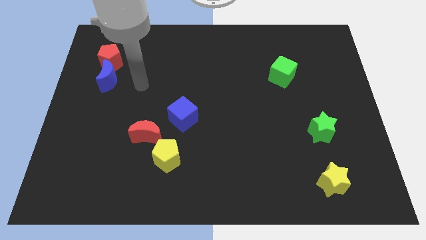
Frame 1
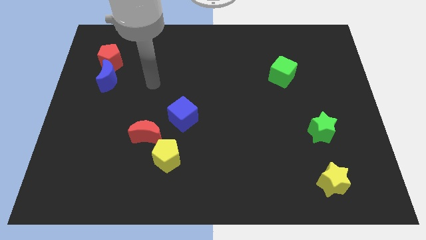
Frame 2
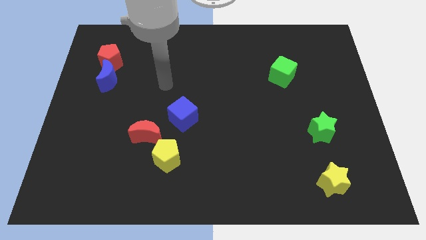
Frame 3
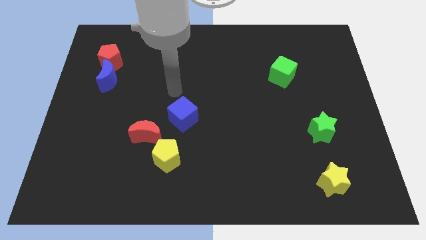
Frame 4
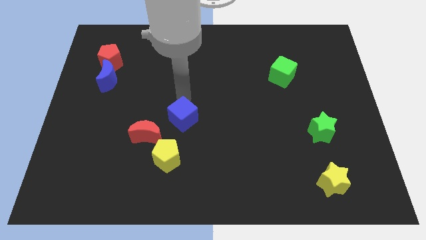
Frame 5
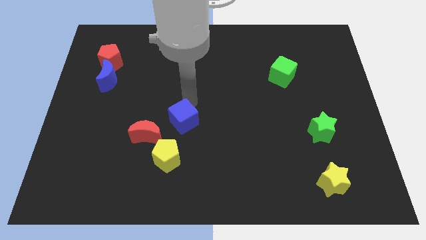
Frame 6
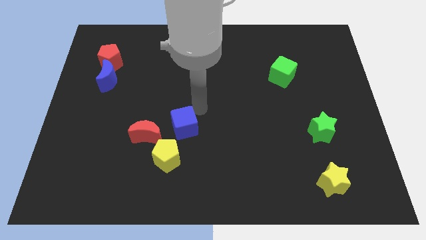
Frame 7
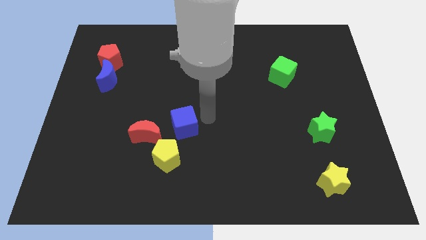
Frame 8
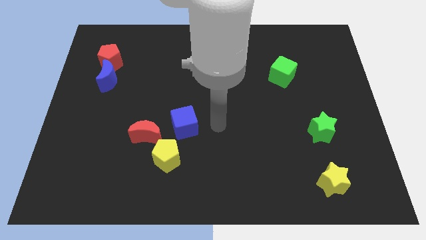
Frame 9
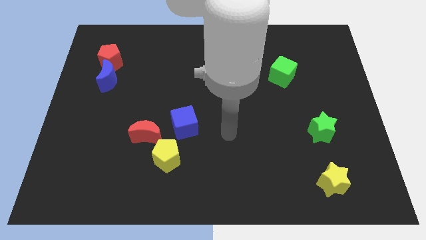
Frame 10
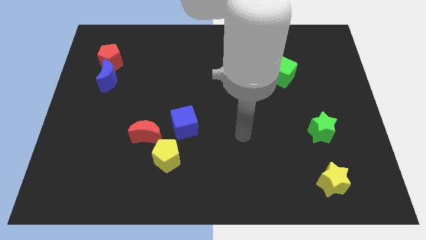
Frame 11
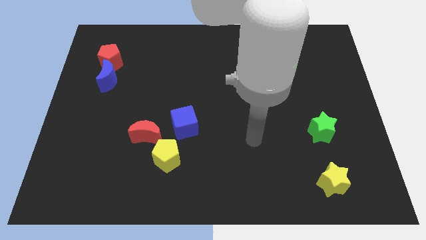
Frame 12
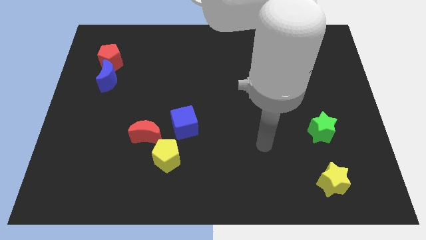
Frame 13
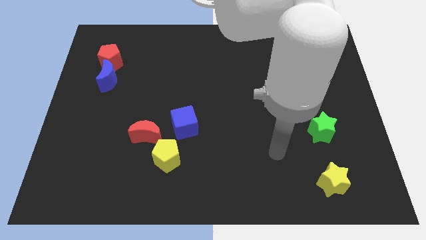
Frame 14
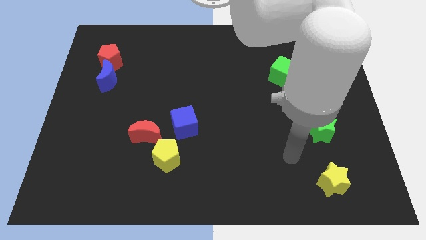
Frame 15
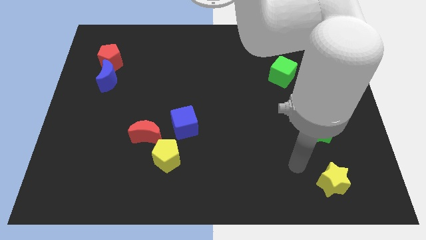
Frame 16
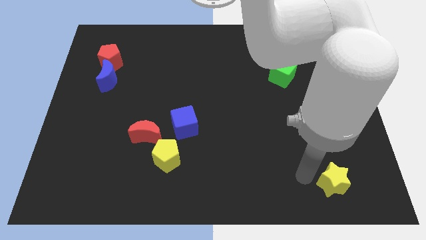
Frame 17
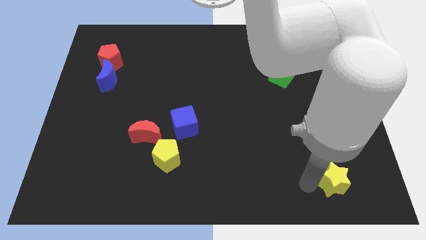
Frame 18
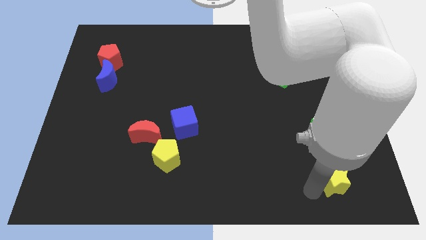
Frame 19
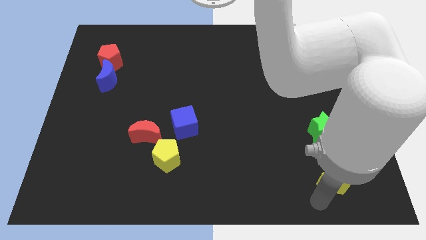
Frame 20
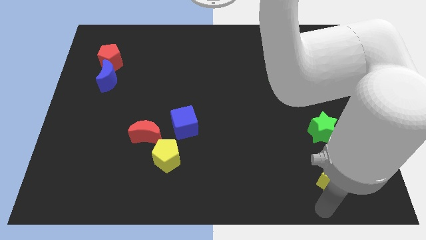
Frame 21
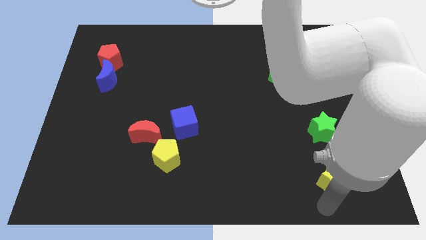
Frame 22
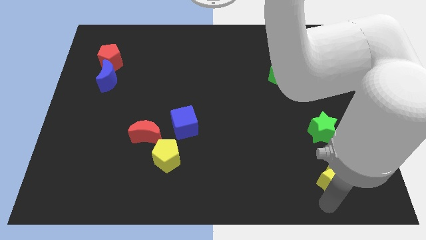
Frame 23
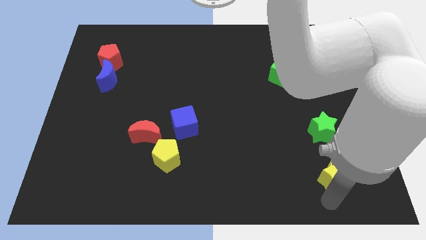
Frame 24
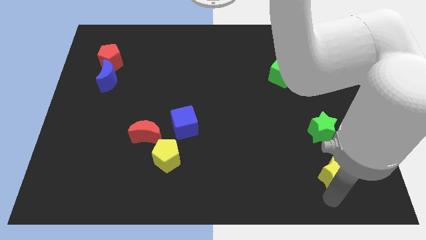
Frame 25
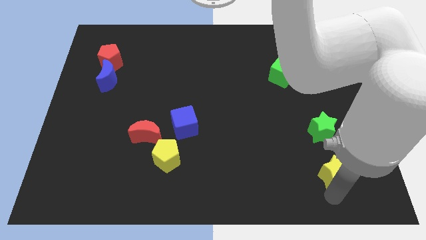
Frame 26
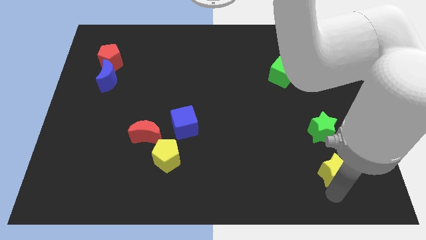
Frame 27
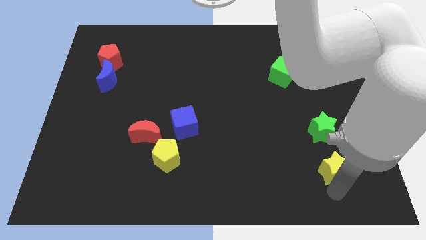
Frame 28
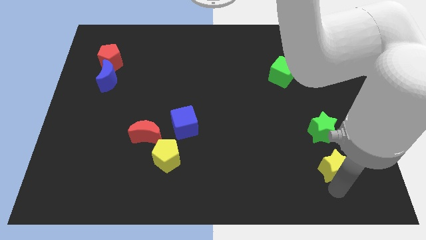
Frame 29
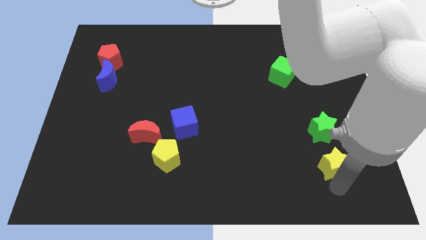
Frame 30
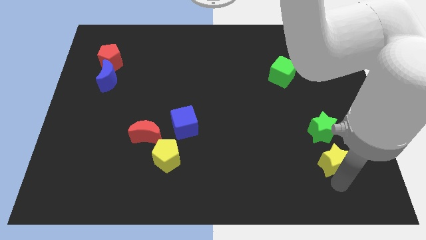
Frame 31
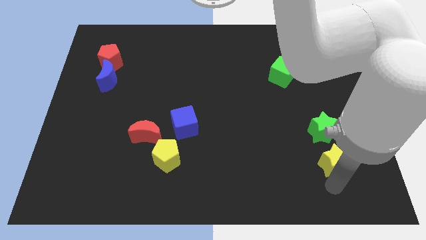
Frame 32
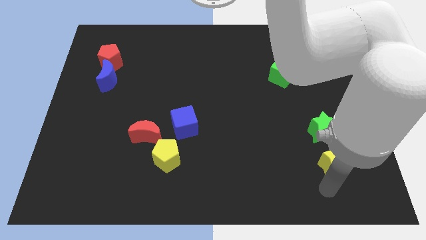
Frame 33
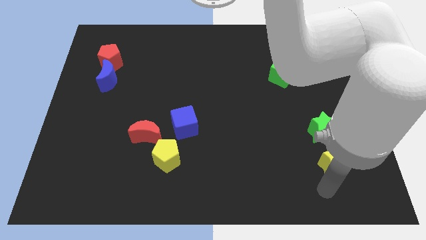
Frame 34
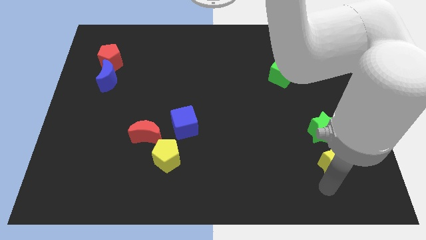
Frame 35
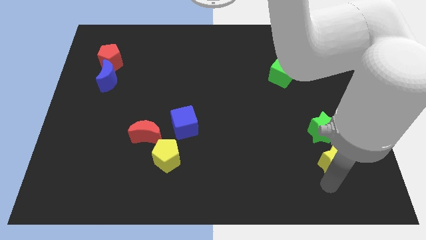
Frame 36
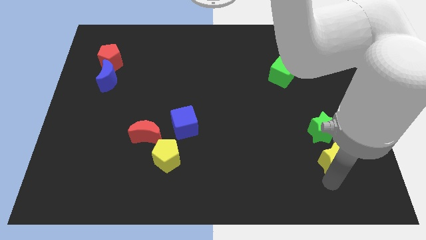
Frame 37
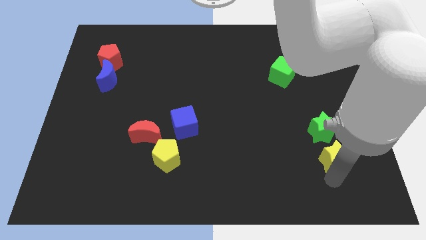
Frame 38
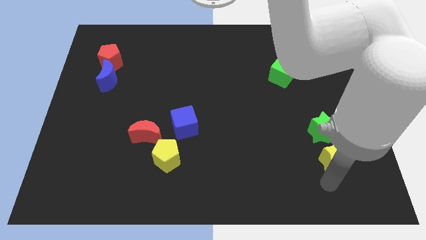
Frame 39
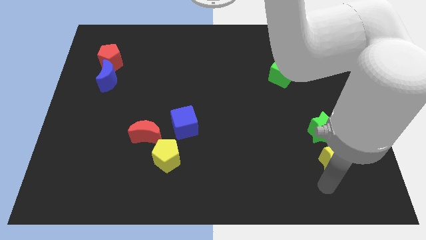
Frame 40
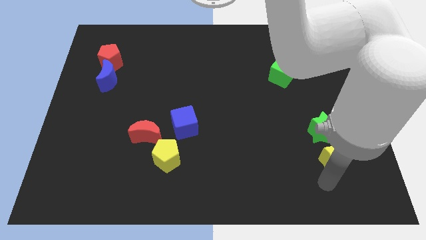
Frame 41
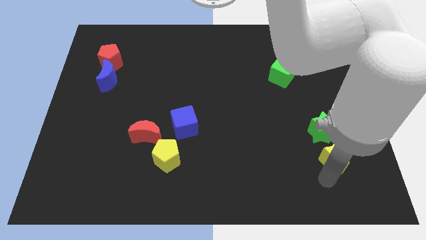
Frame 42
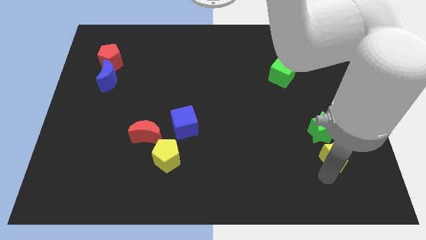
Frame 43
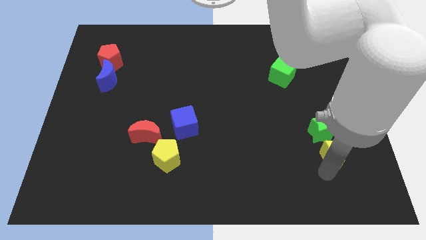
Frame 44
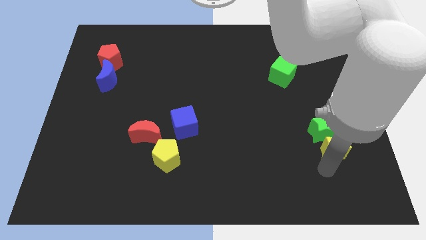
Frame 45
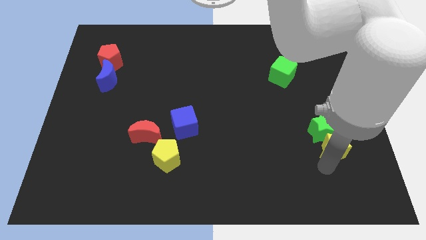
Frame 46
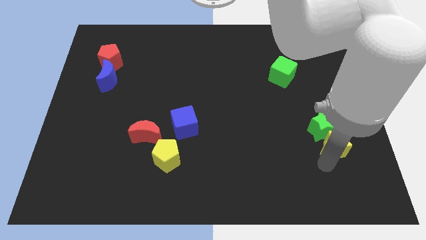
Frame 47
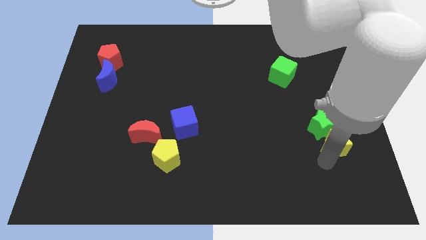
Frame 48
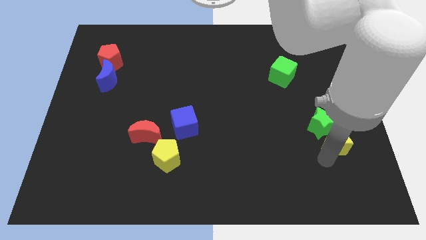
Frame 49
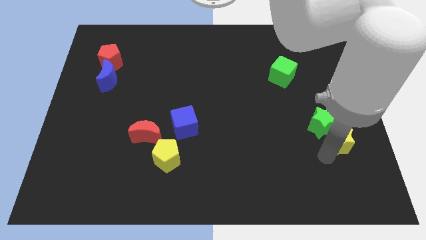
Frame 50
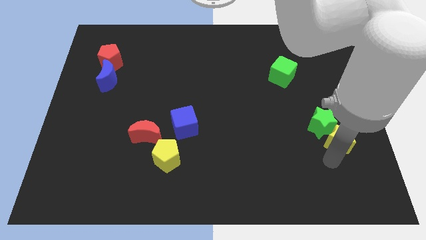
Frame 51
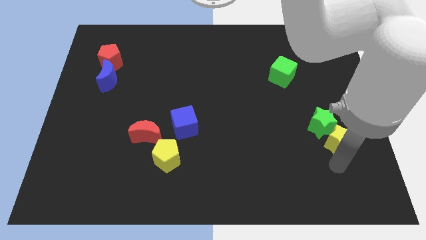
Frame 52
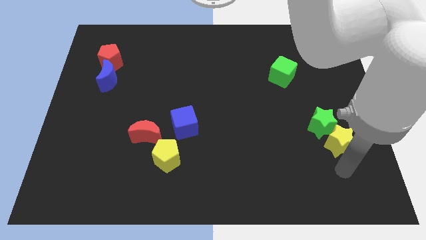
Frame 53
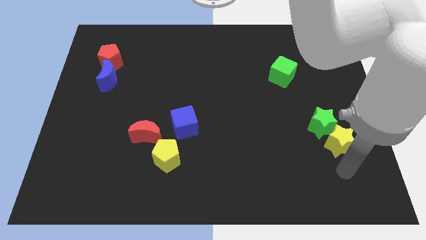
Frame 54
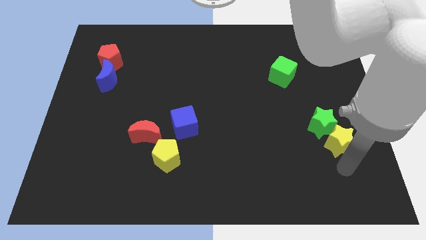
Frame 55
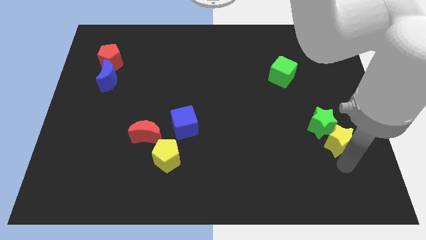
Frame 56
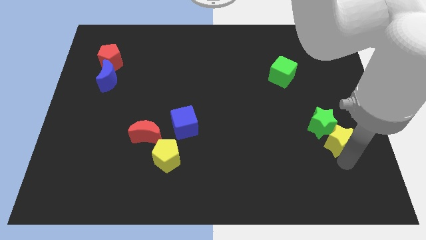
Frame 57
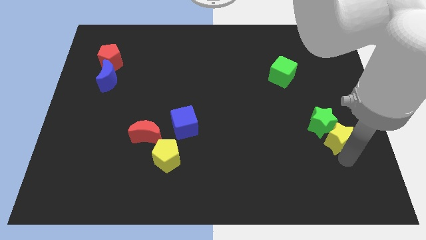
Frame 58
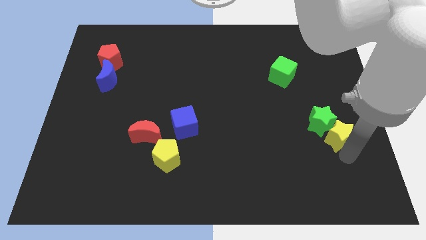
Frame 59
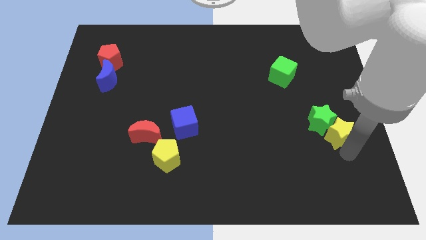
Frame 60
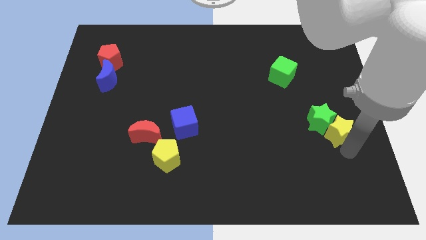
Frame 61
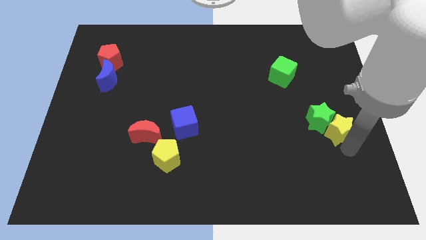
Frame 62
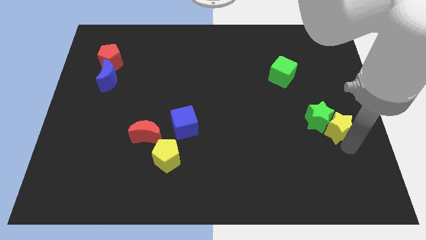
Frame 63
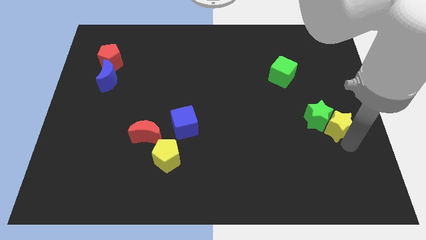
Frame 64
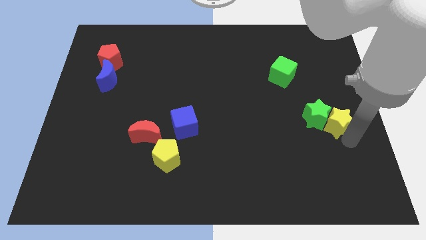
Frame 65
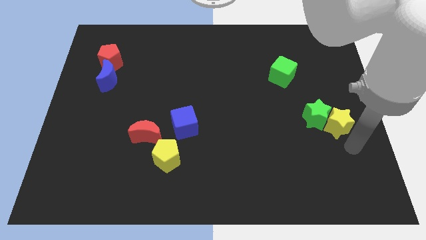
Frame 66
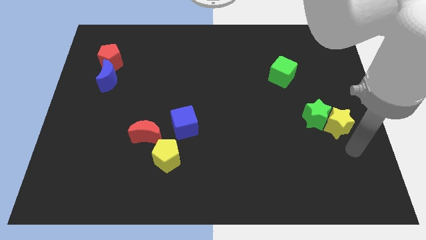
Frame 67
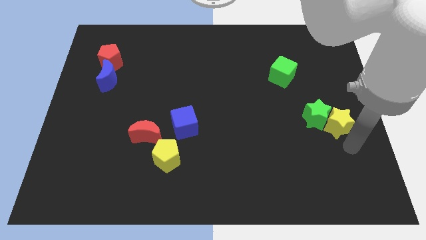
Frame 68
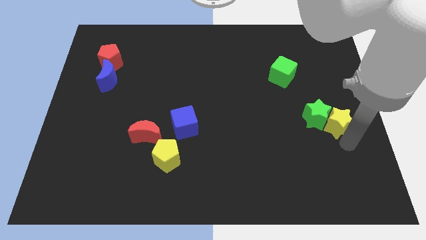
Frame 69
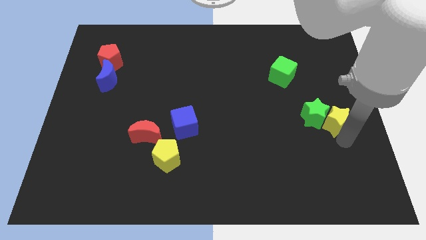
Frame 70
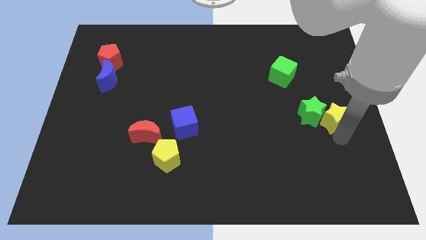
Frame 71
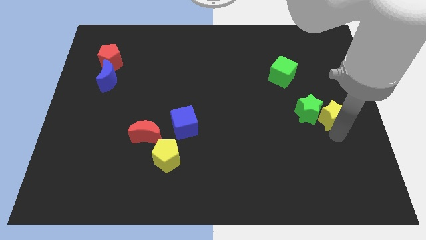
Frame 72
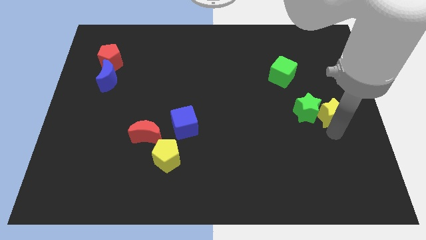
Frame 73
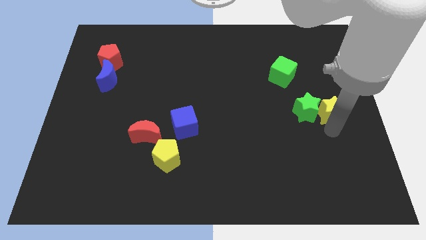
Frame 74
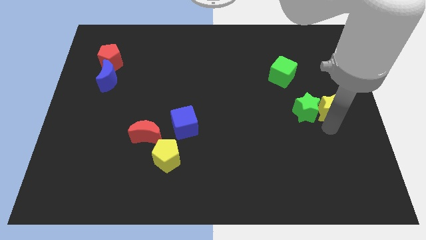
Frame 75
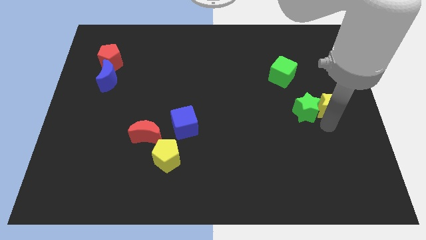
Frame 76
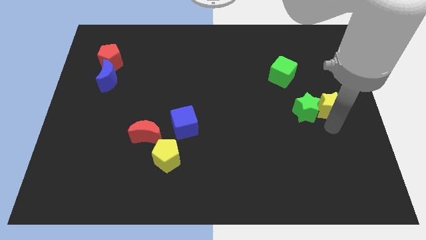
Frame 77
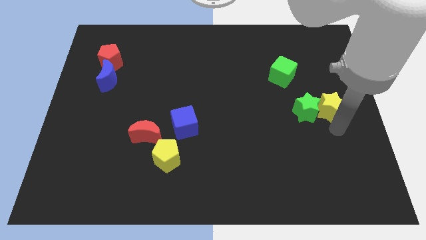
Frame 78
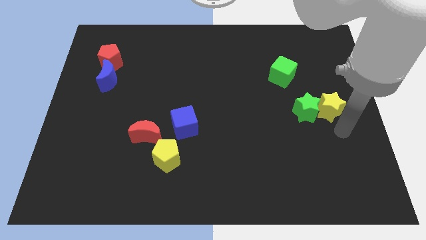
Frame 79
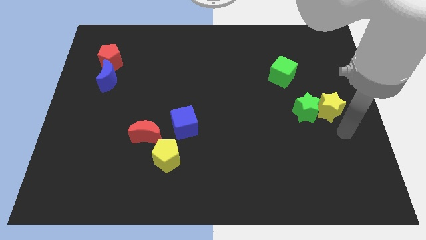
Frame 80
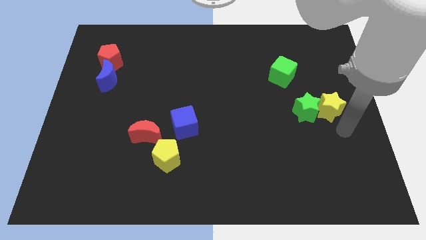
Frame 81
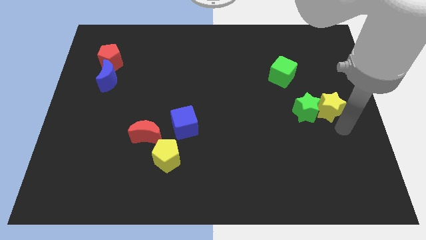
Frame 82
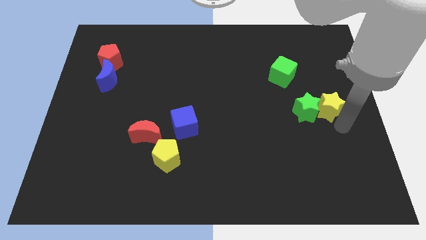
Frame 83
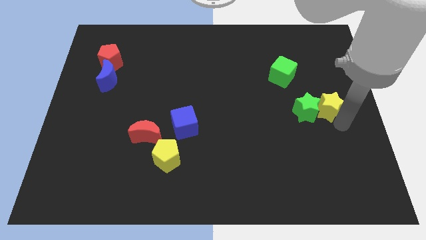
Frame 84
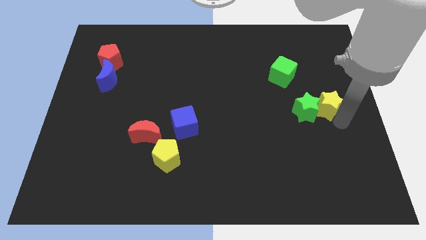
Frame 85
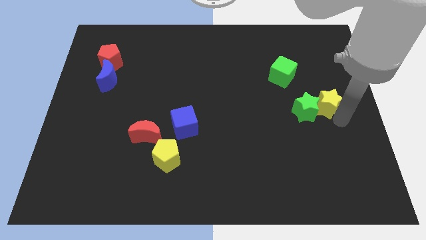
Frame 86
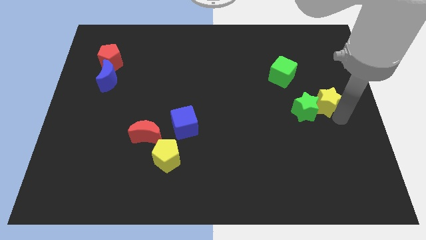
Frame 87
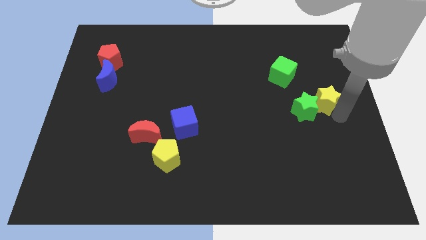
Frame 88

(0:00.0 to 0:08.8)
move the yellow star up
